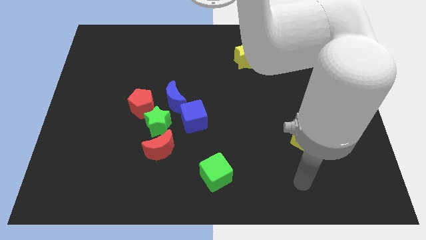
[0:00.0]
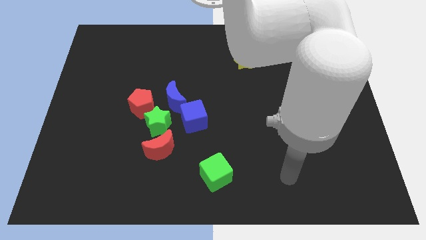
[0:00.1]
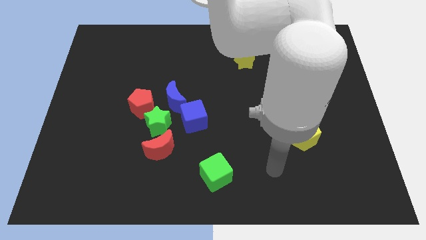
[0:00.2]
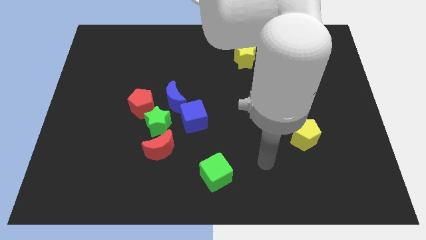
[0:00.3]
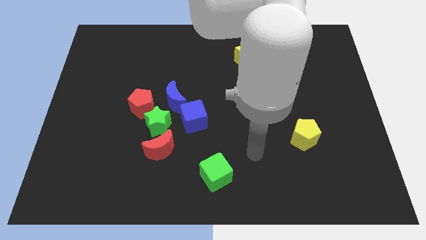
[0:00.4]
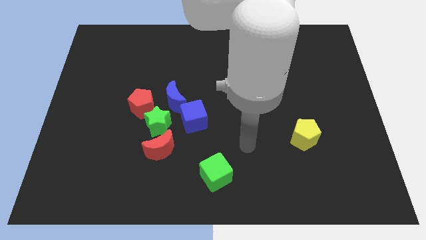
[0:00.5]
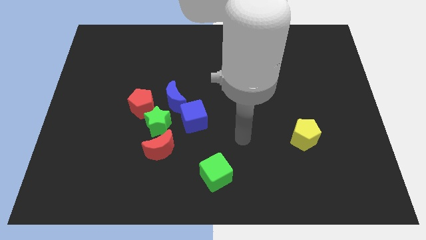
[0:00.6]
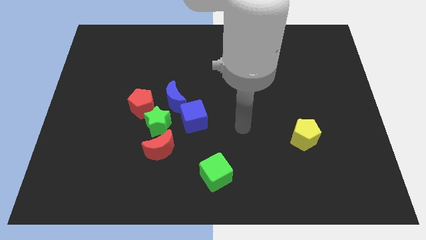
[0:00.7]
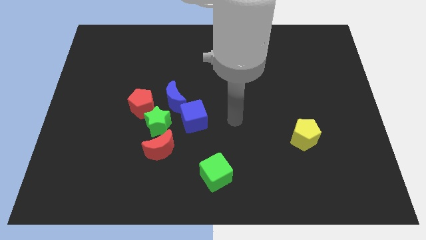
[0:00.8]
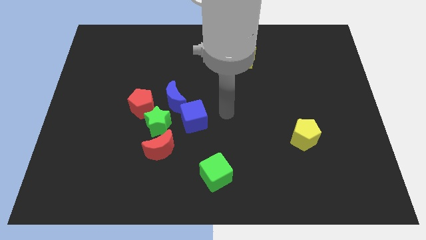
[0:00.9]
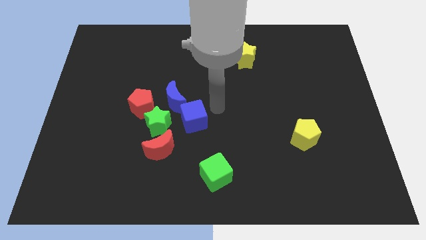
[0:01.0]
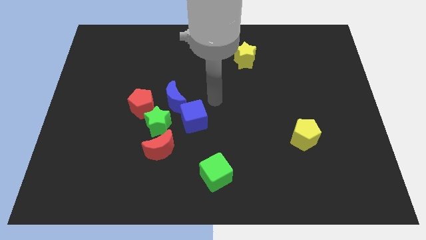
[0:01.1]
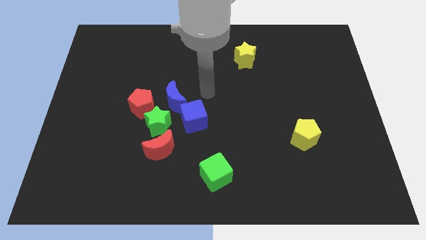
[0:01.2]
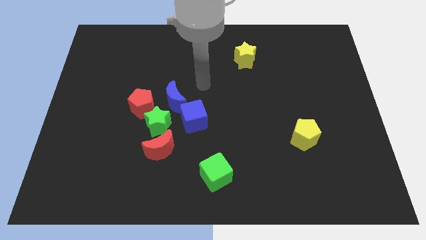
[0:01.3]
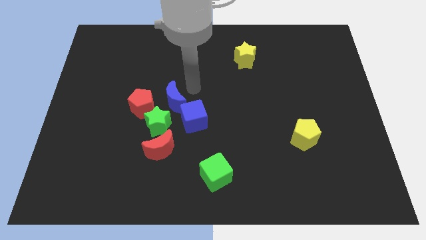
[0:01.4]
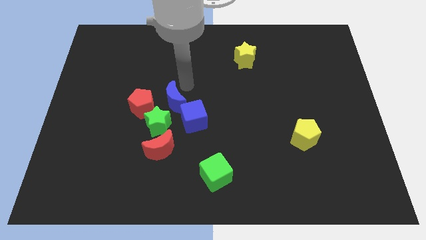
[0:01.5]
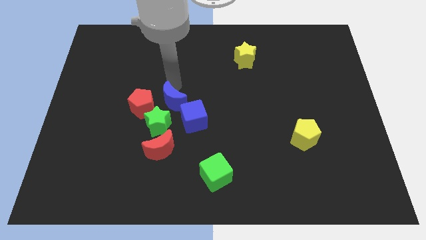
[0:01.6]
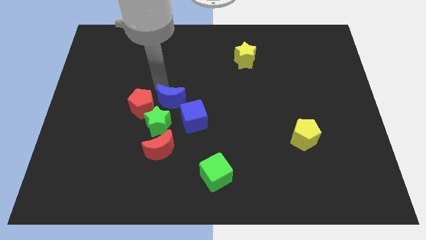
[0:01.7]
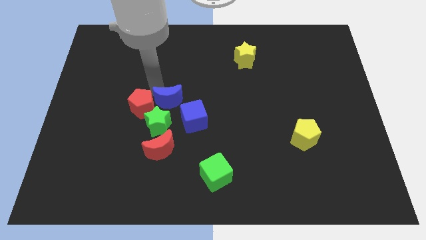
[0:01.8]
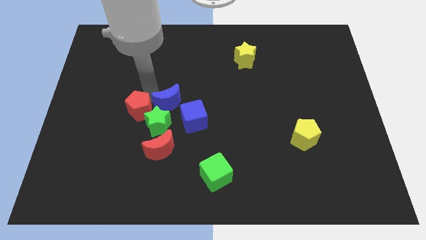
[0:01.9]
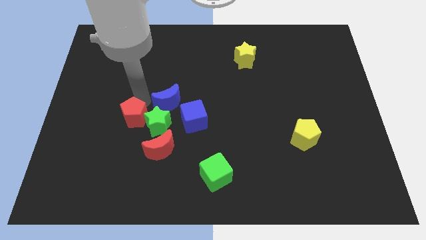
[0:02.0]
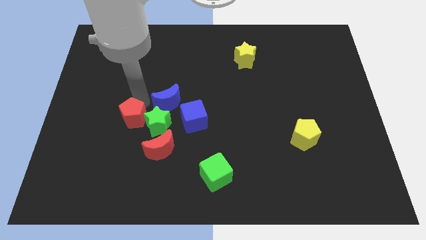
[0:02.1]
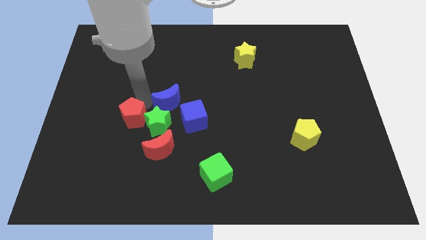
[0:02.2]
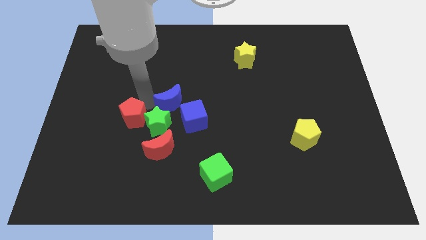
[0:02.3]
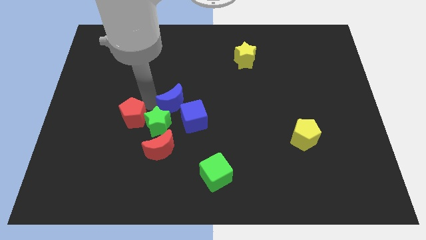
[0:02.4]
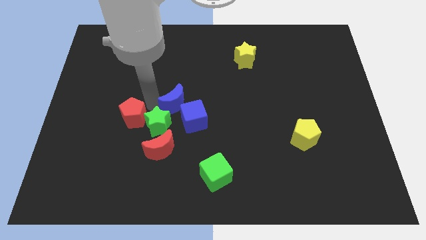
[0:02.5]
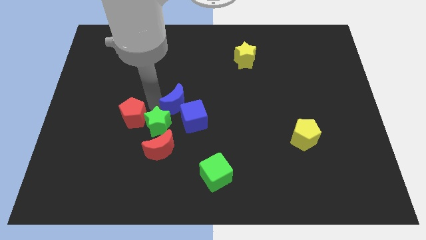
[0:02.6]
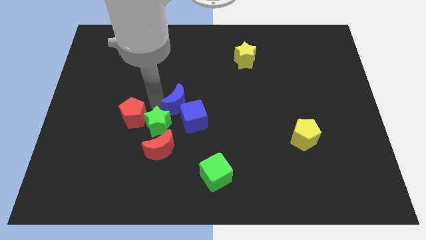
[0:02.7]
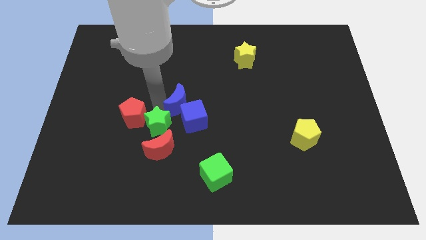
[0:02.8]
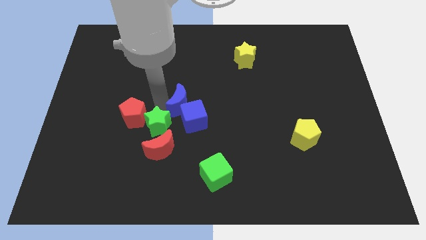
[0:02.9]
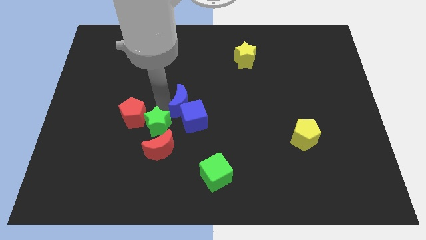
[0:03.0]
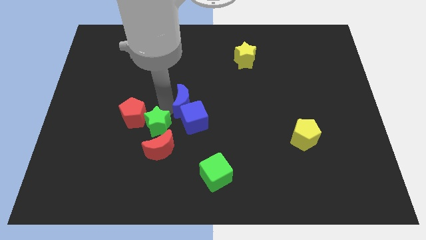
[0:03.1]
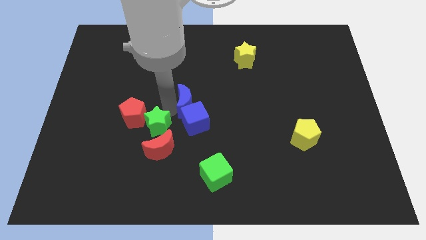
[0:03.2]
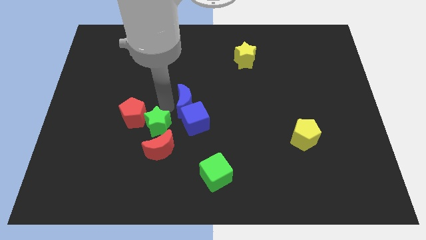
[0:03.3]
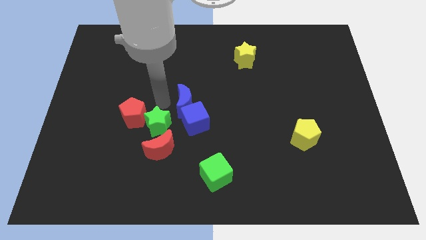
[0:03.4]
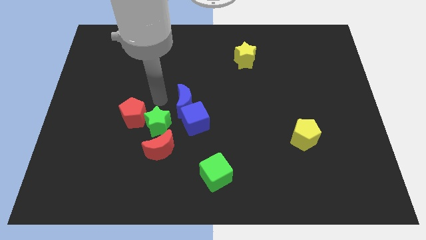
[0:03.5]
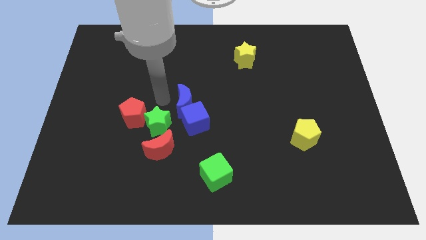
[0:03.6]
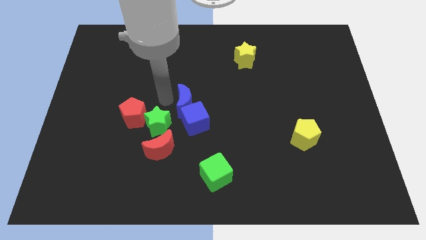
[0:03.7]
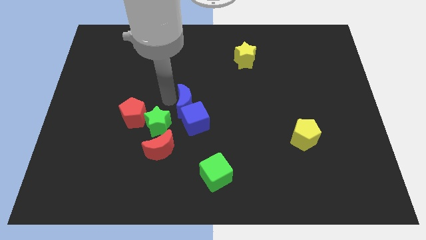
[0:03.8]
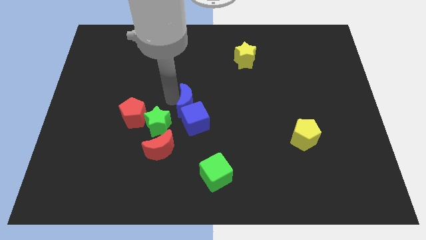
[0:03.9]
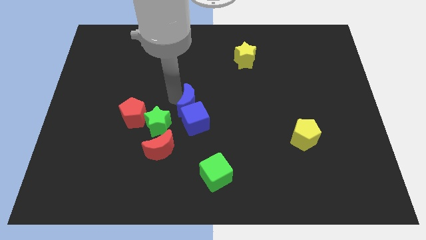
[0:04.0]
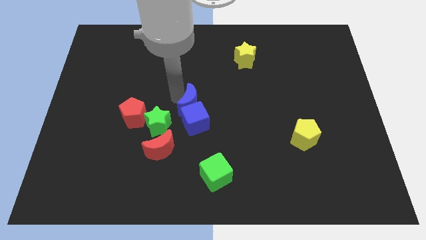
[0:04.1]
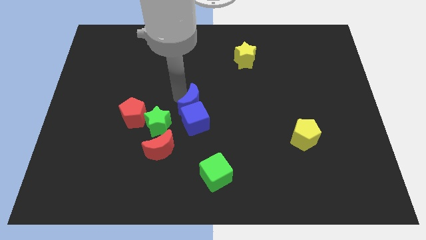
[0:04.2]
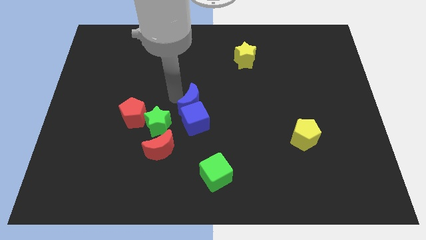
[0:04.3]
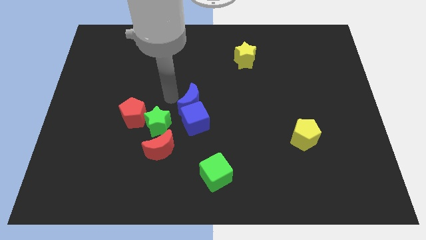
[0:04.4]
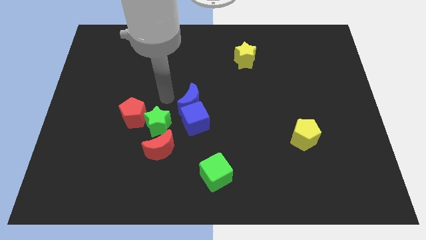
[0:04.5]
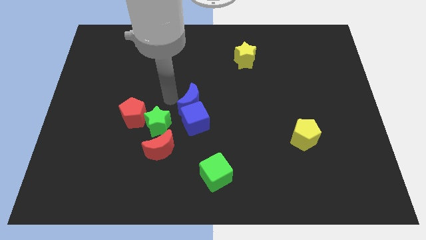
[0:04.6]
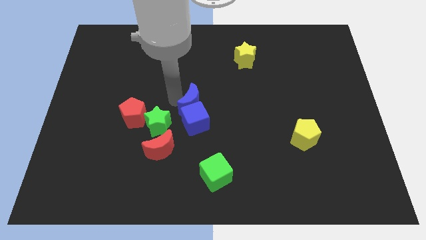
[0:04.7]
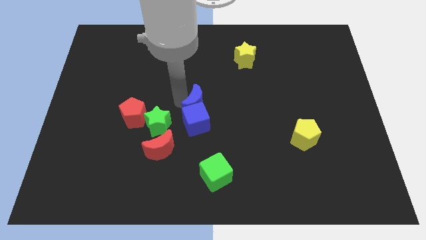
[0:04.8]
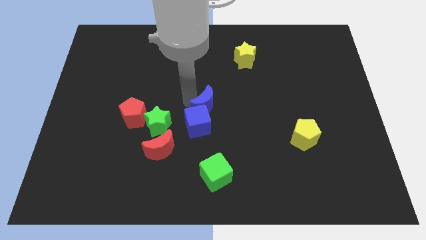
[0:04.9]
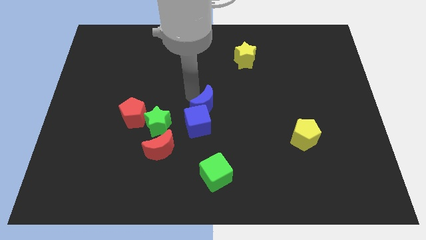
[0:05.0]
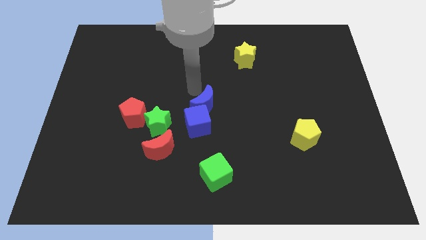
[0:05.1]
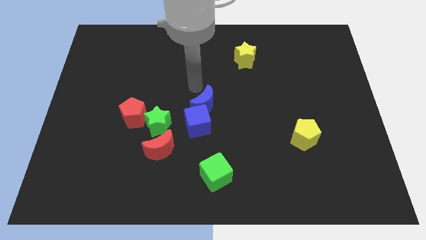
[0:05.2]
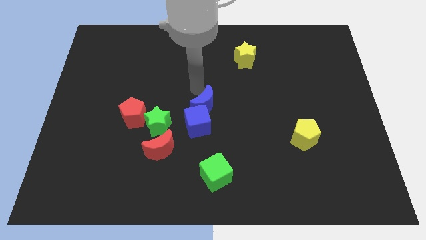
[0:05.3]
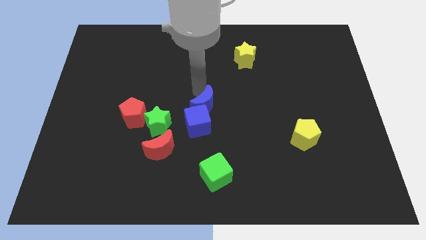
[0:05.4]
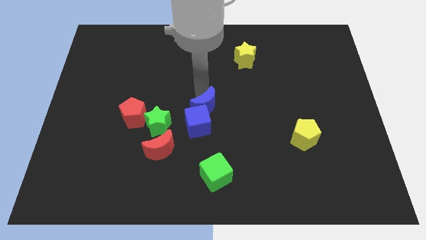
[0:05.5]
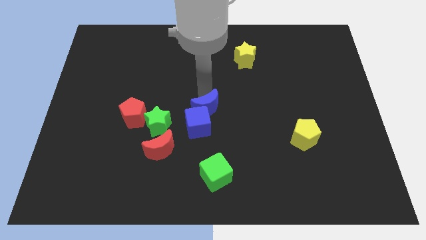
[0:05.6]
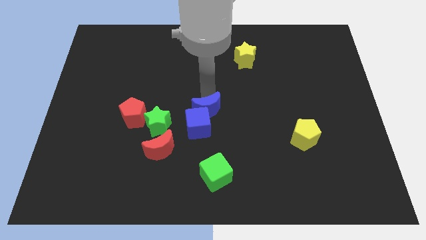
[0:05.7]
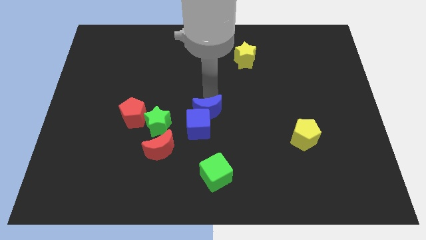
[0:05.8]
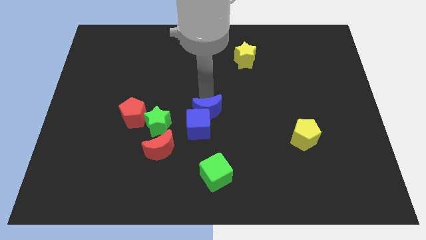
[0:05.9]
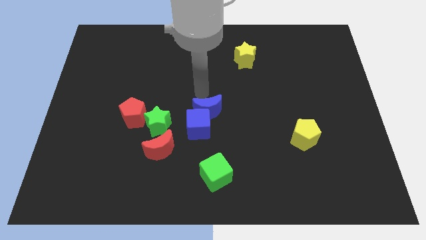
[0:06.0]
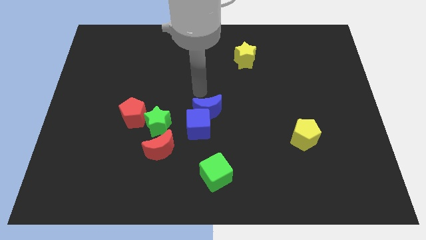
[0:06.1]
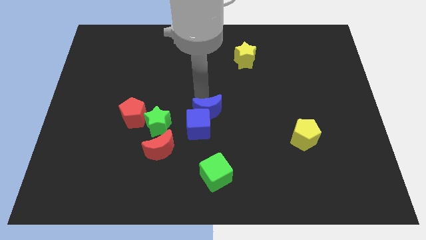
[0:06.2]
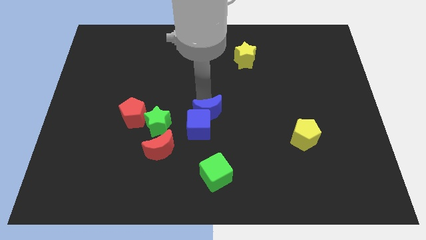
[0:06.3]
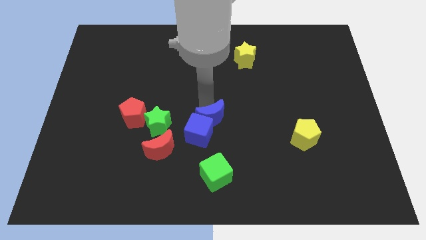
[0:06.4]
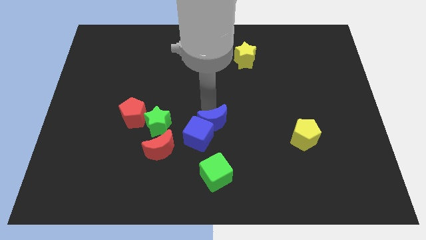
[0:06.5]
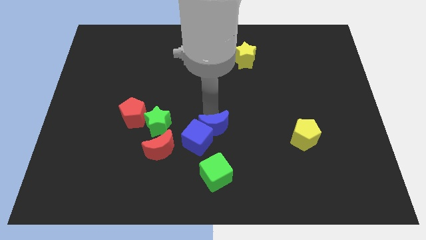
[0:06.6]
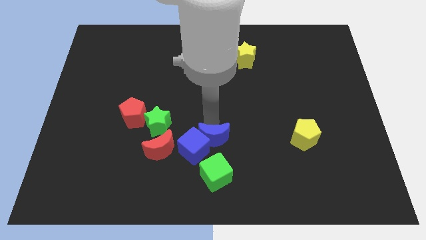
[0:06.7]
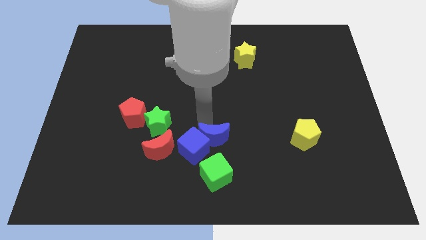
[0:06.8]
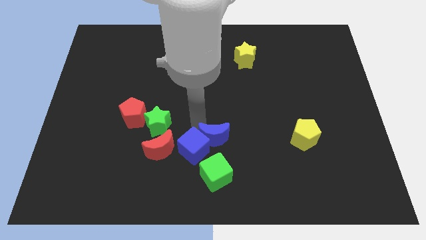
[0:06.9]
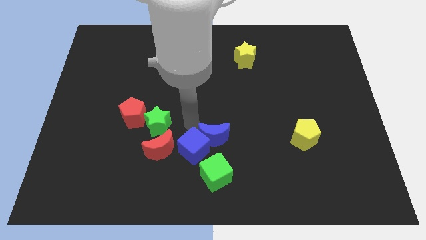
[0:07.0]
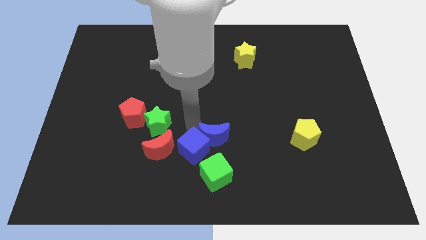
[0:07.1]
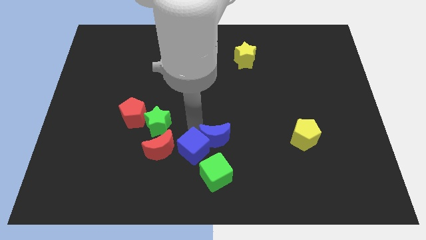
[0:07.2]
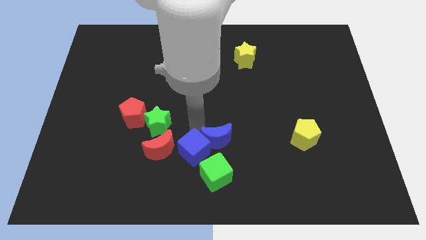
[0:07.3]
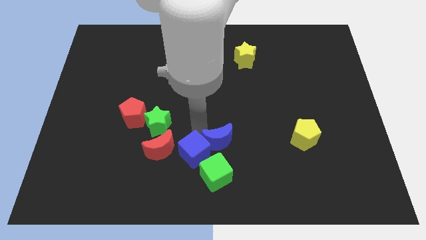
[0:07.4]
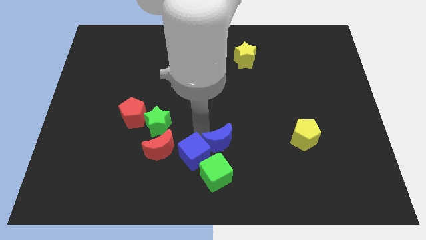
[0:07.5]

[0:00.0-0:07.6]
slide the blue moon to the top right side of the green cube
